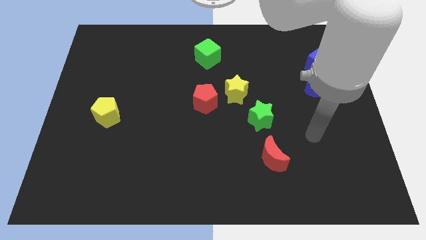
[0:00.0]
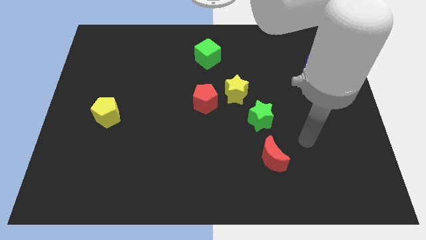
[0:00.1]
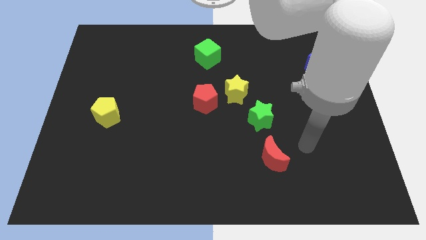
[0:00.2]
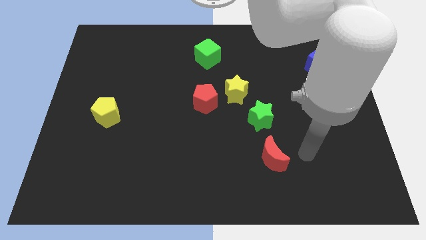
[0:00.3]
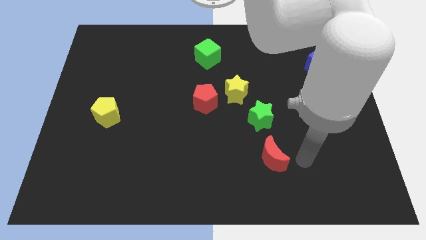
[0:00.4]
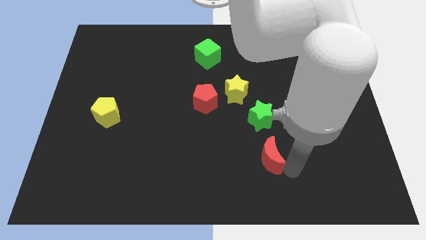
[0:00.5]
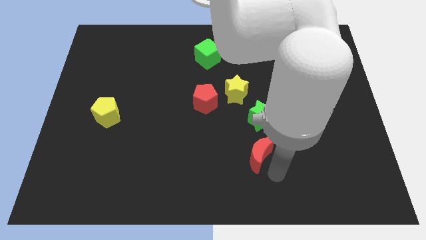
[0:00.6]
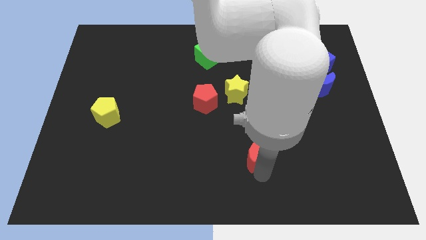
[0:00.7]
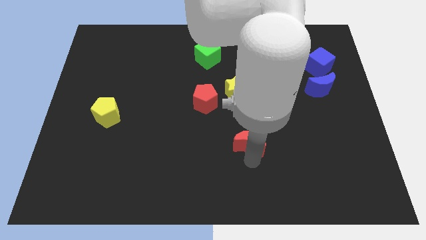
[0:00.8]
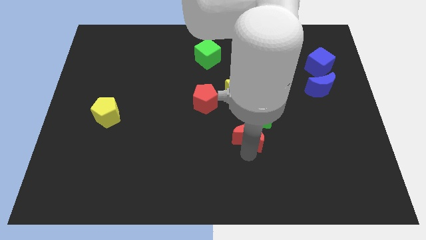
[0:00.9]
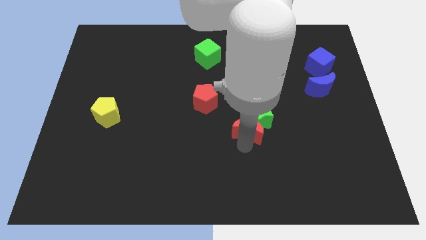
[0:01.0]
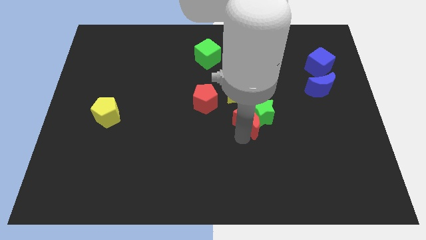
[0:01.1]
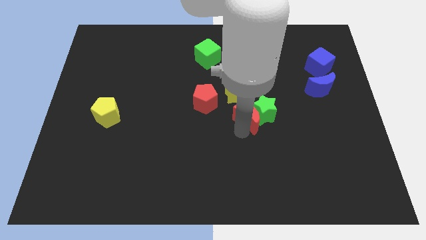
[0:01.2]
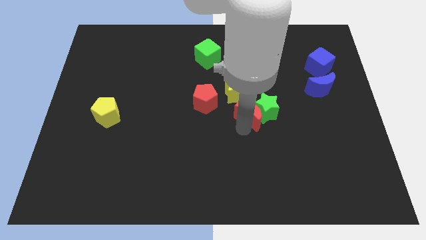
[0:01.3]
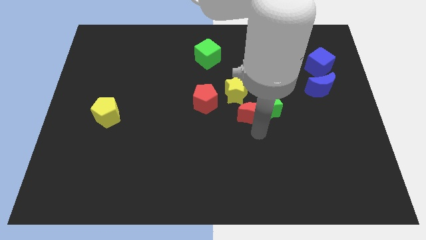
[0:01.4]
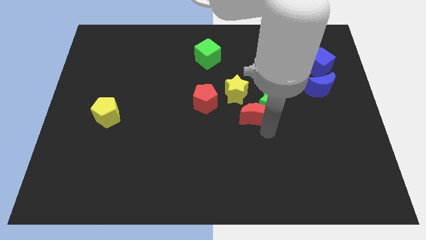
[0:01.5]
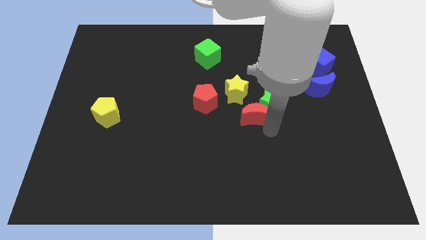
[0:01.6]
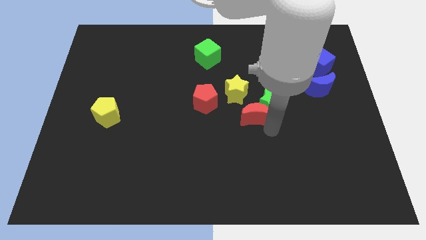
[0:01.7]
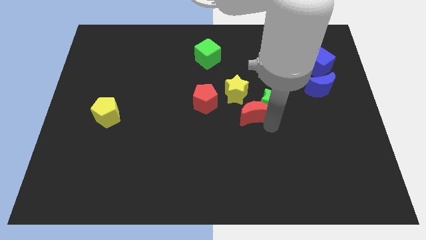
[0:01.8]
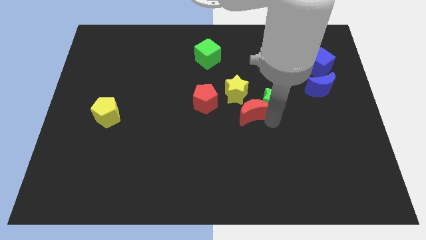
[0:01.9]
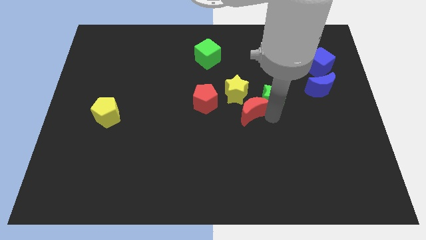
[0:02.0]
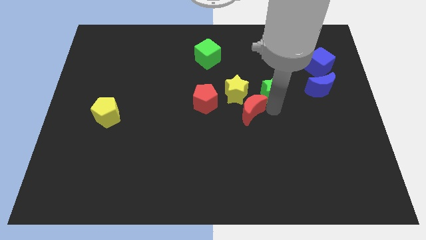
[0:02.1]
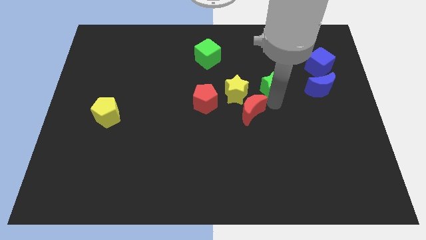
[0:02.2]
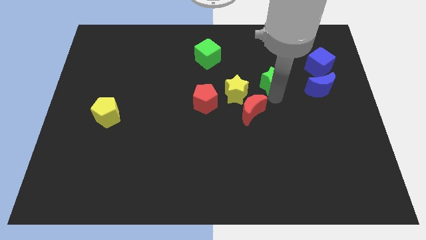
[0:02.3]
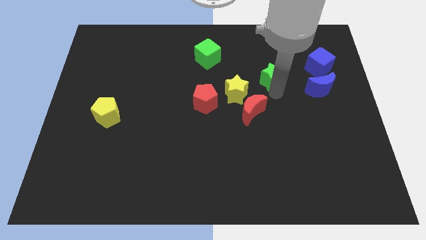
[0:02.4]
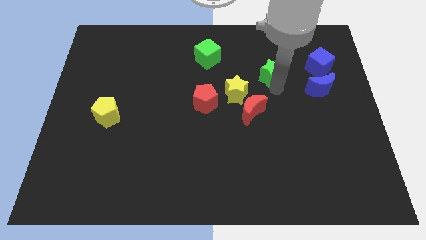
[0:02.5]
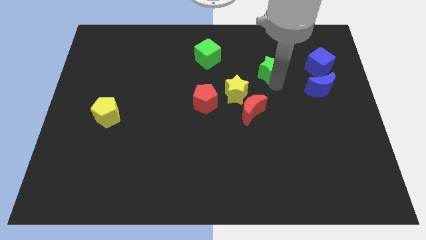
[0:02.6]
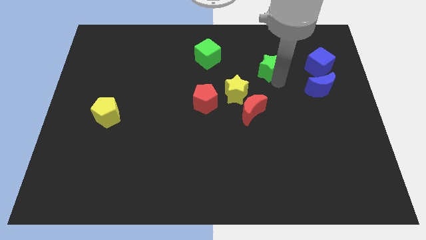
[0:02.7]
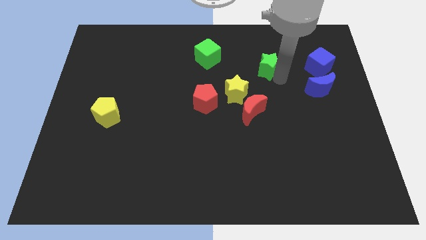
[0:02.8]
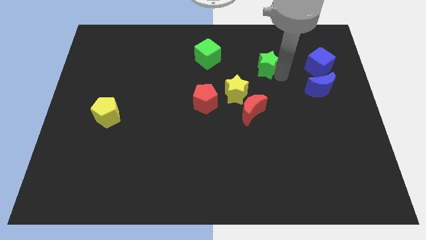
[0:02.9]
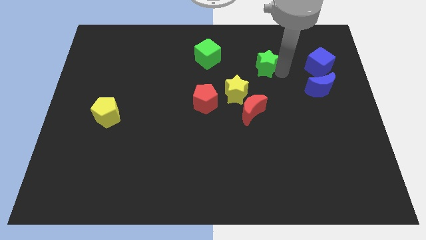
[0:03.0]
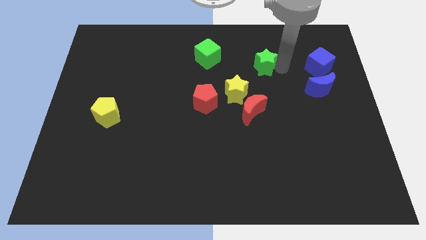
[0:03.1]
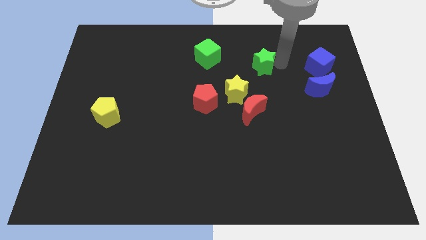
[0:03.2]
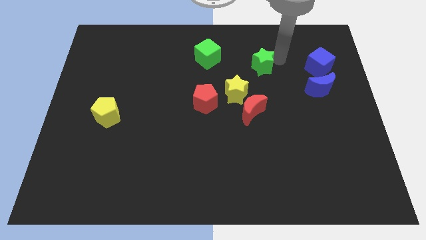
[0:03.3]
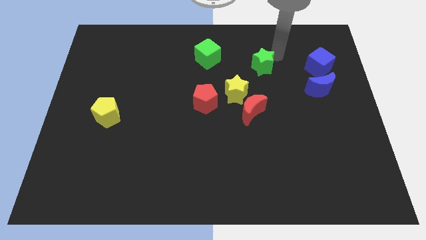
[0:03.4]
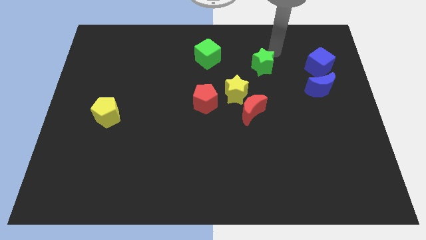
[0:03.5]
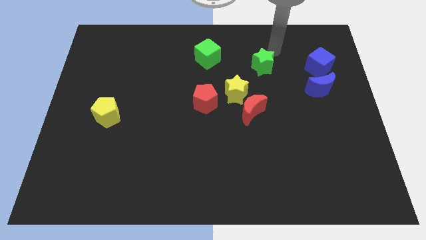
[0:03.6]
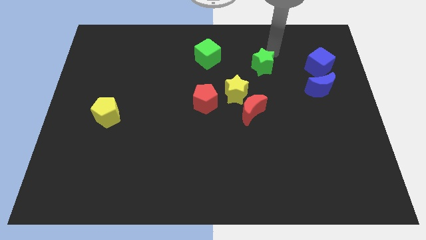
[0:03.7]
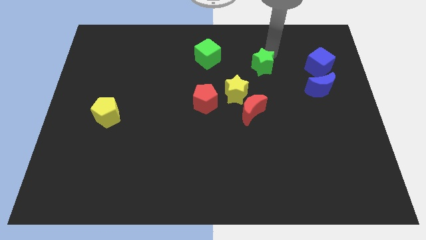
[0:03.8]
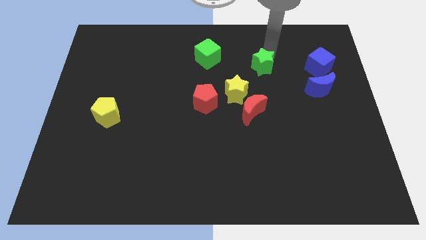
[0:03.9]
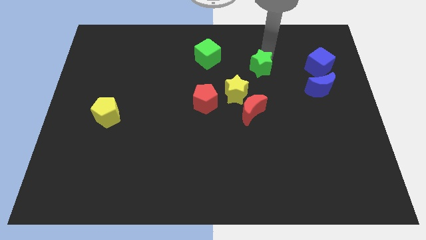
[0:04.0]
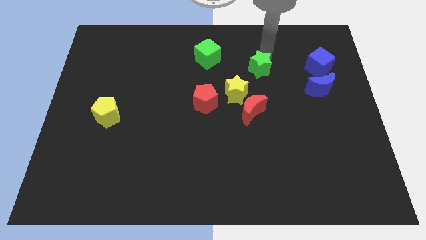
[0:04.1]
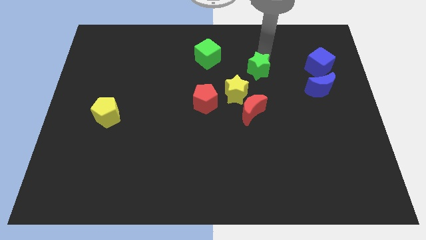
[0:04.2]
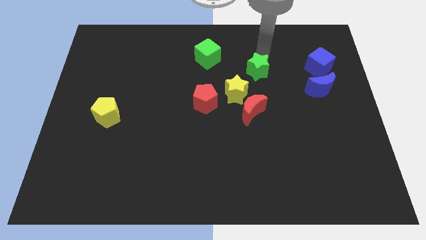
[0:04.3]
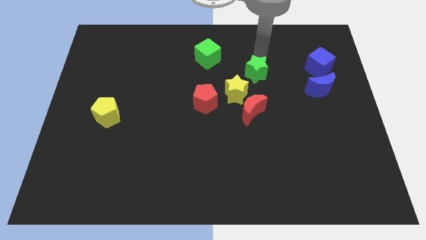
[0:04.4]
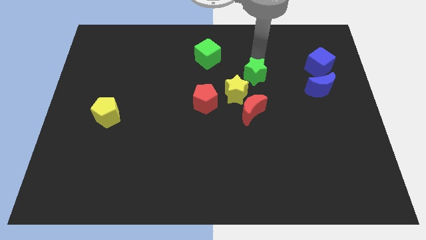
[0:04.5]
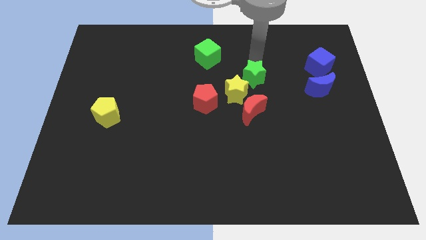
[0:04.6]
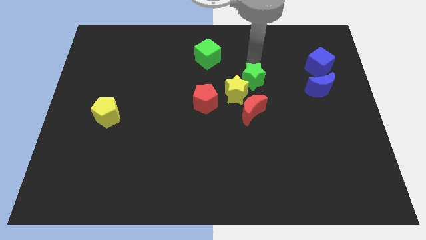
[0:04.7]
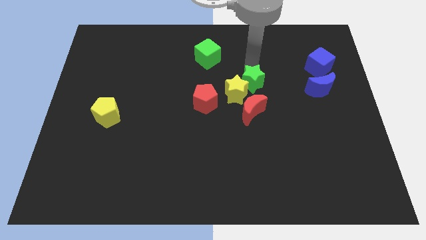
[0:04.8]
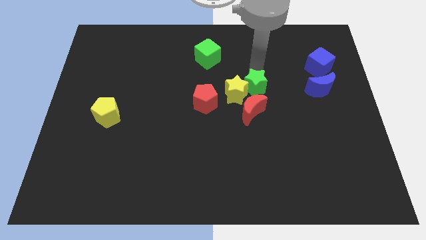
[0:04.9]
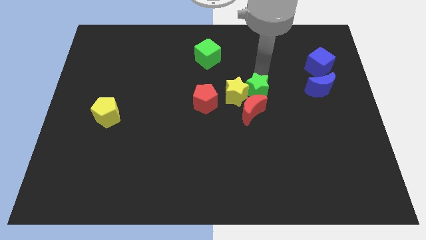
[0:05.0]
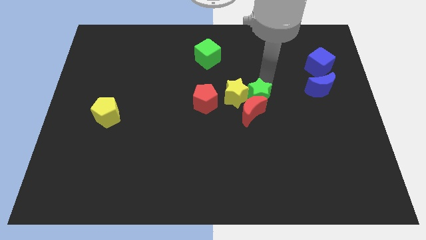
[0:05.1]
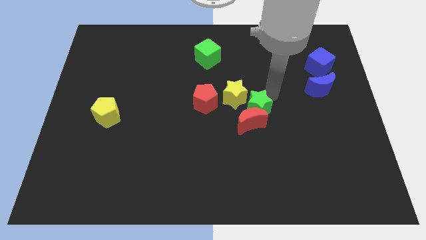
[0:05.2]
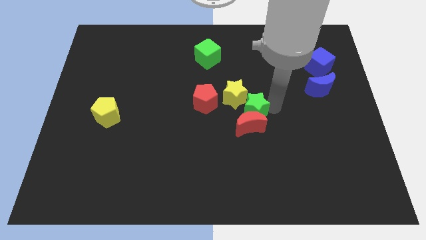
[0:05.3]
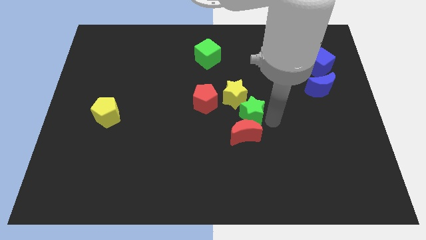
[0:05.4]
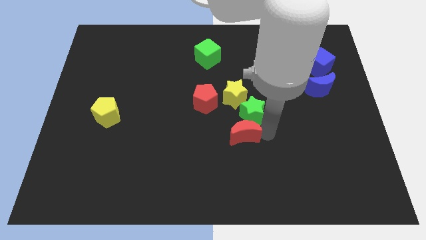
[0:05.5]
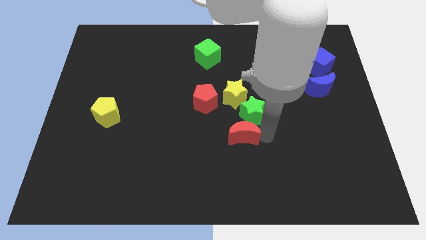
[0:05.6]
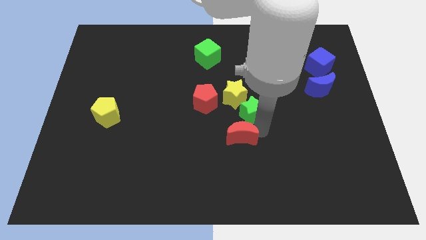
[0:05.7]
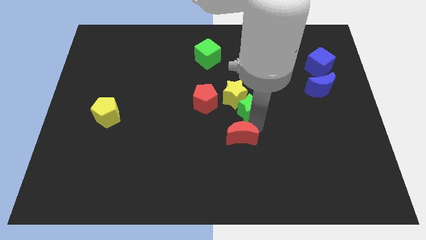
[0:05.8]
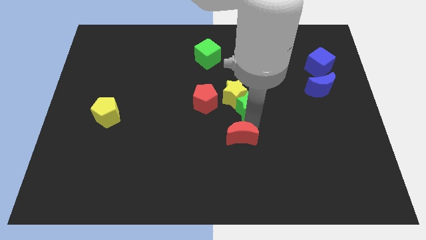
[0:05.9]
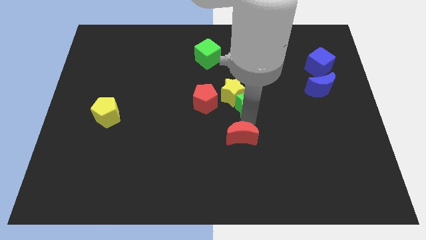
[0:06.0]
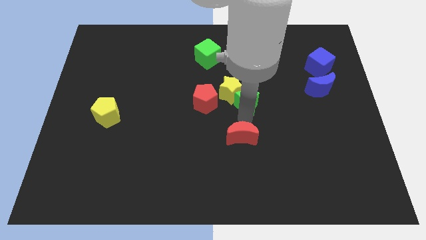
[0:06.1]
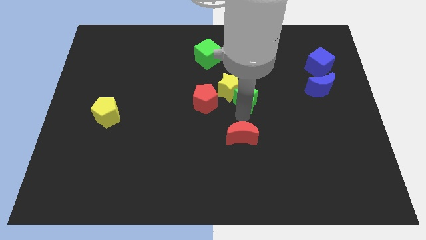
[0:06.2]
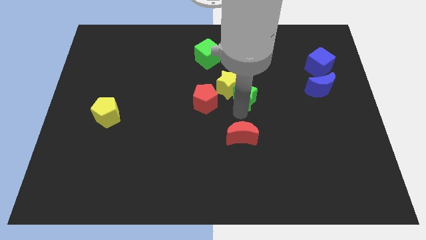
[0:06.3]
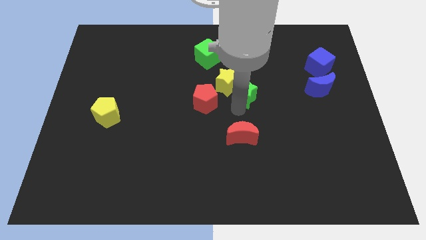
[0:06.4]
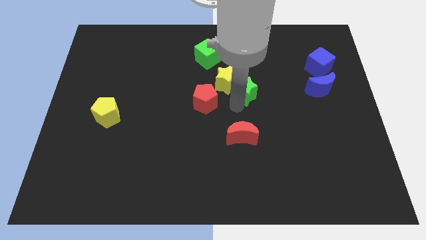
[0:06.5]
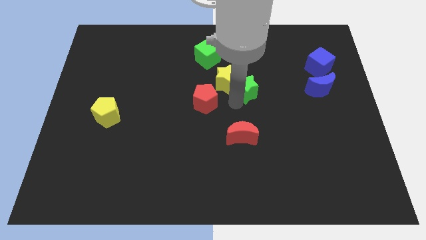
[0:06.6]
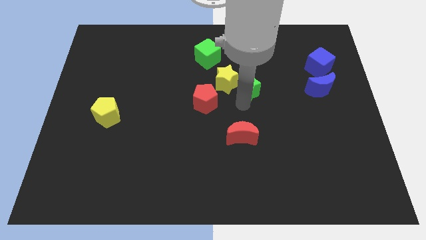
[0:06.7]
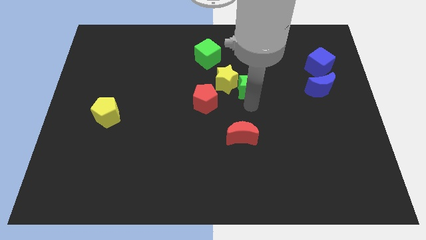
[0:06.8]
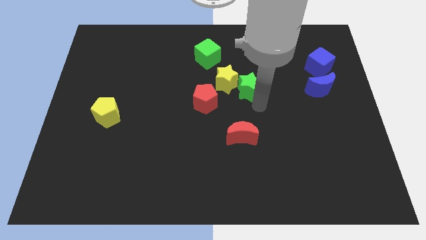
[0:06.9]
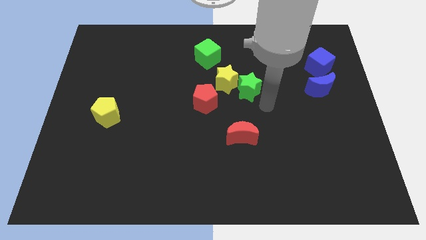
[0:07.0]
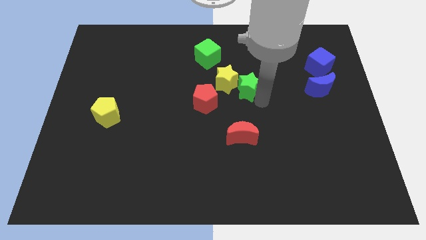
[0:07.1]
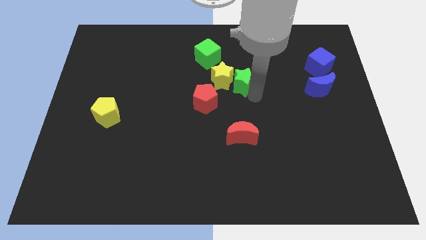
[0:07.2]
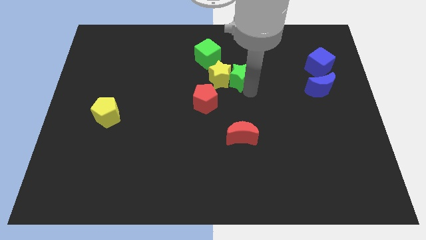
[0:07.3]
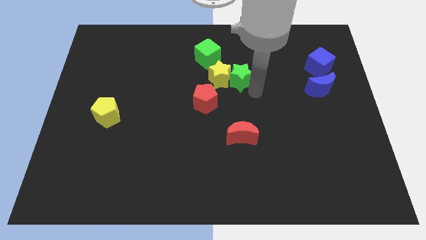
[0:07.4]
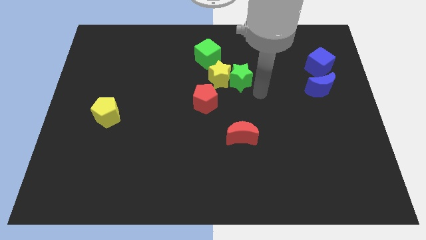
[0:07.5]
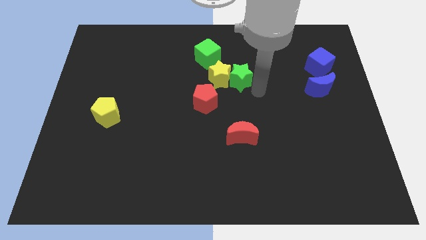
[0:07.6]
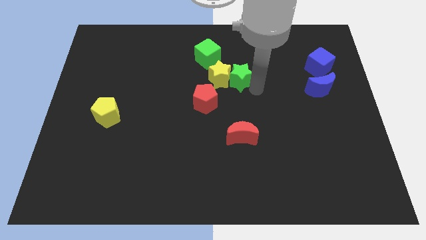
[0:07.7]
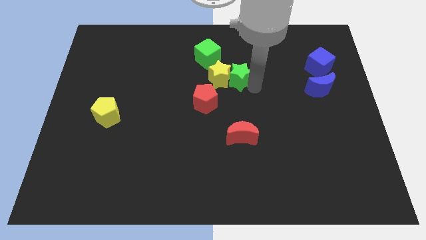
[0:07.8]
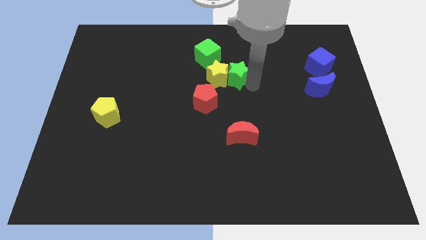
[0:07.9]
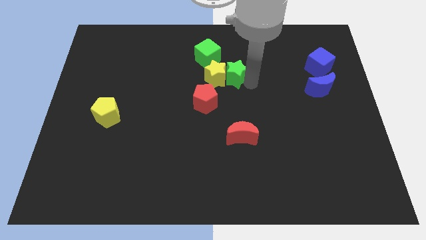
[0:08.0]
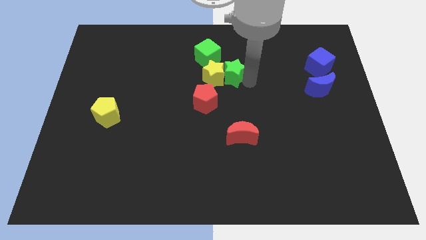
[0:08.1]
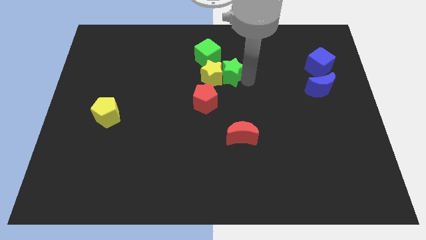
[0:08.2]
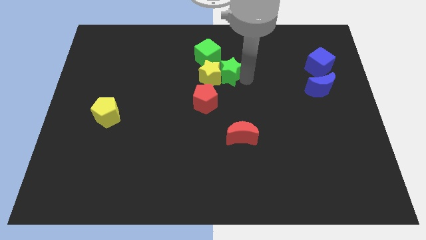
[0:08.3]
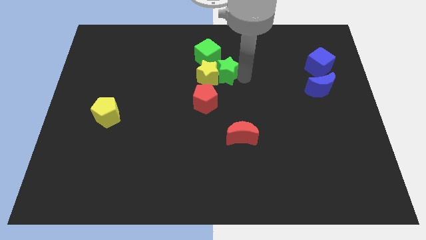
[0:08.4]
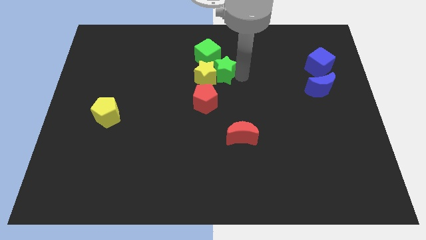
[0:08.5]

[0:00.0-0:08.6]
move the green star above the red pentagon
